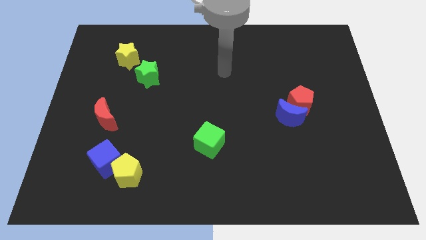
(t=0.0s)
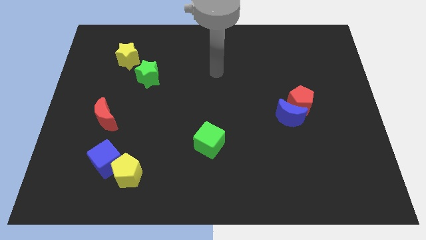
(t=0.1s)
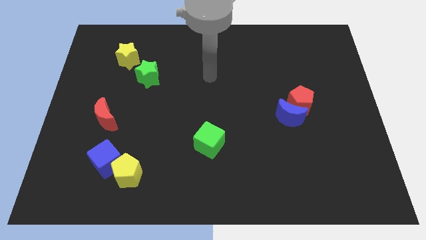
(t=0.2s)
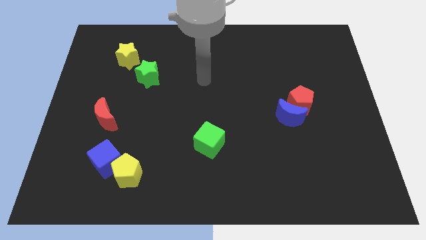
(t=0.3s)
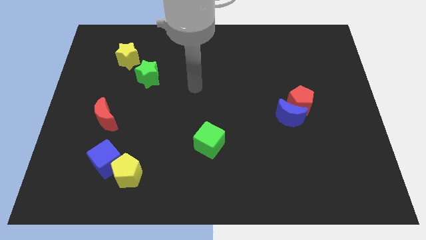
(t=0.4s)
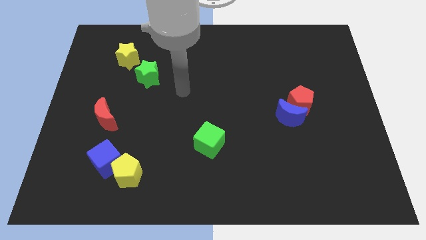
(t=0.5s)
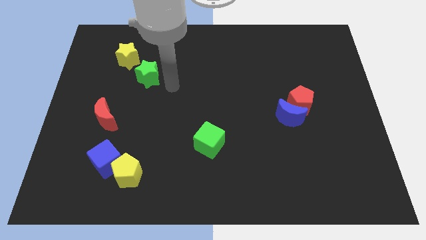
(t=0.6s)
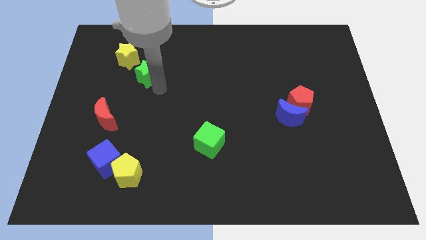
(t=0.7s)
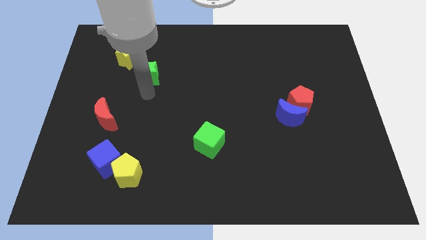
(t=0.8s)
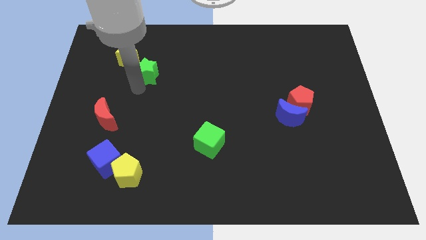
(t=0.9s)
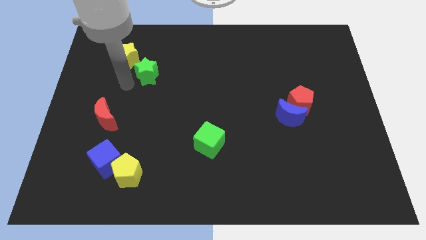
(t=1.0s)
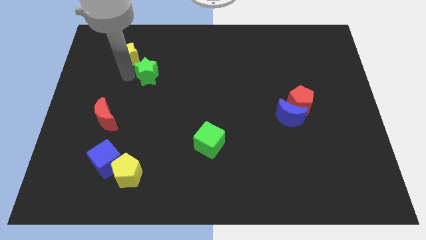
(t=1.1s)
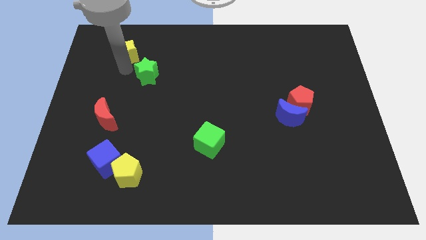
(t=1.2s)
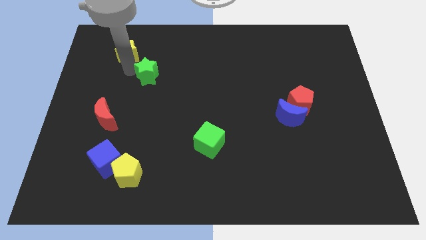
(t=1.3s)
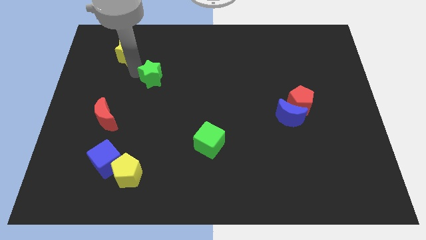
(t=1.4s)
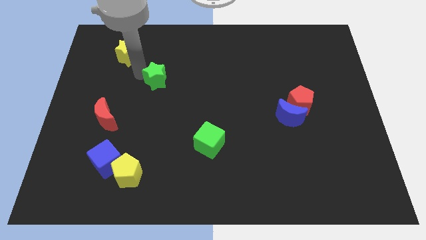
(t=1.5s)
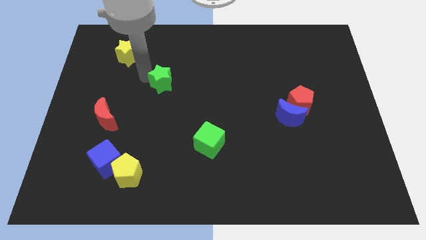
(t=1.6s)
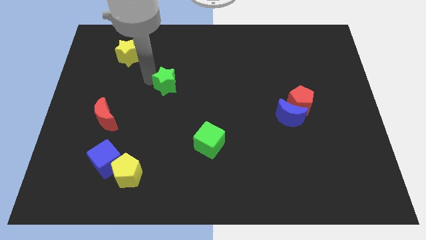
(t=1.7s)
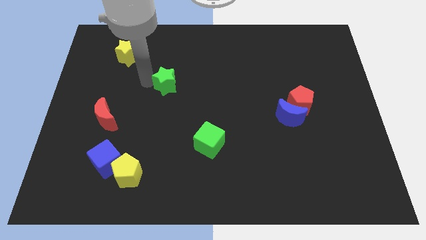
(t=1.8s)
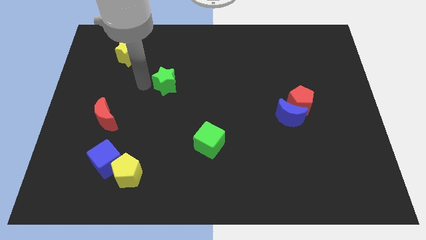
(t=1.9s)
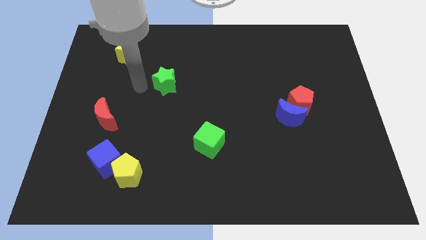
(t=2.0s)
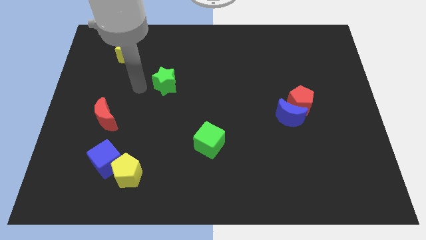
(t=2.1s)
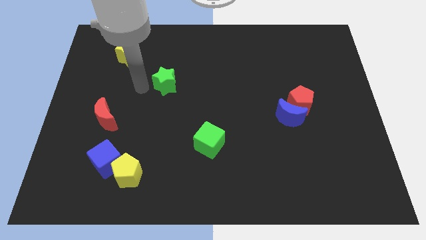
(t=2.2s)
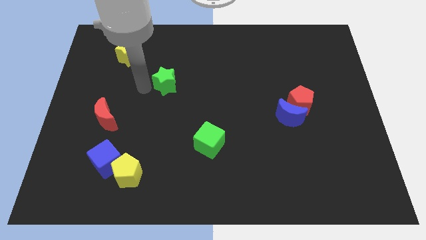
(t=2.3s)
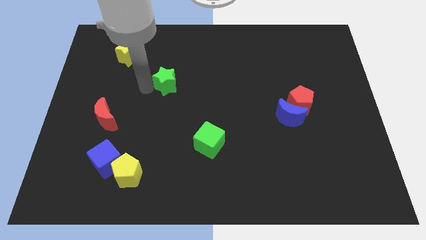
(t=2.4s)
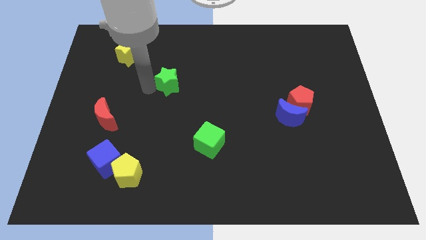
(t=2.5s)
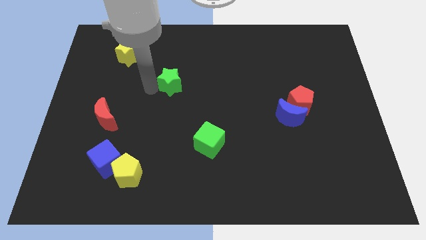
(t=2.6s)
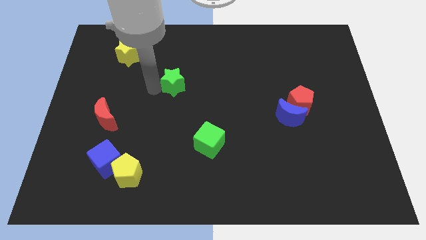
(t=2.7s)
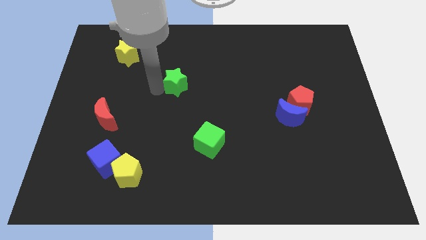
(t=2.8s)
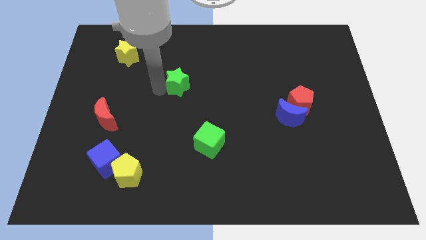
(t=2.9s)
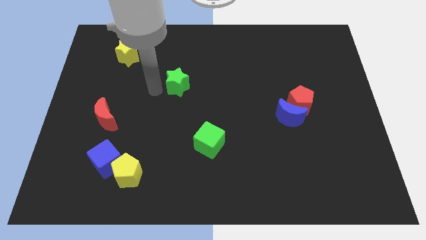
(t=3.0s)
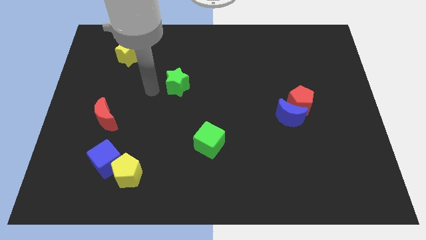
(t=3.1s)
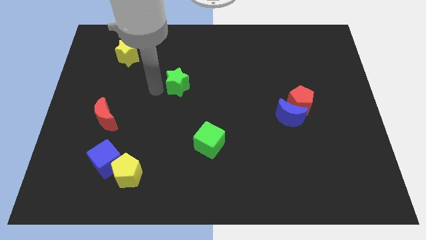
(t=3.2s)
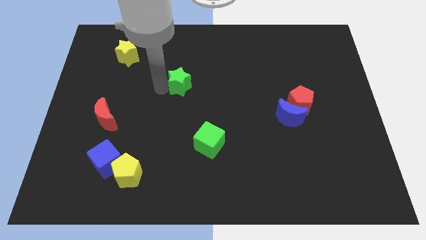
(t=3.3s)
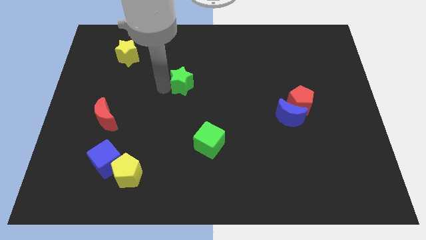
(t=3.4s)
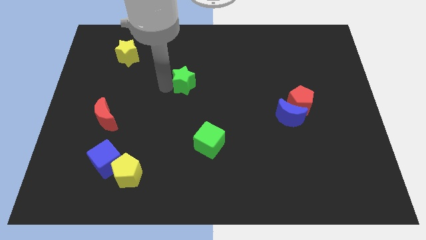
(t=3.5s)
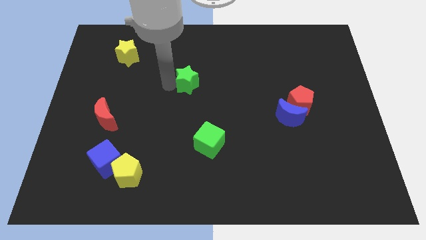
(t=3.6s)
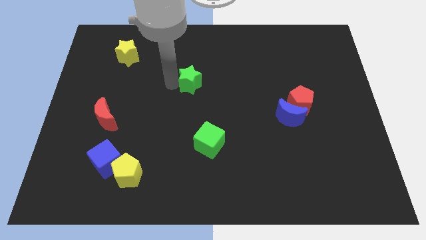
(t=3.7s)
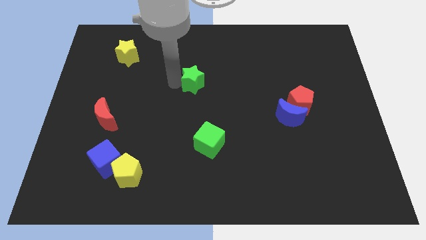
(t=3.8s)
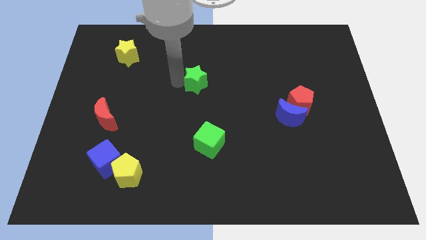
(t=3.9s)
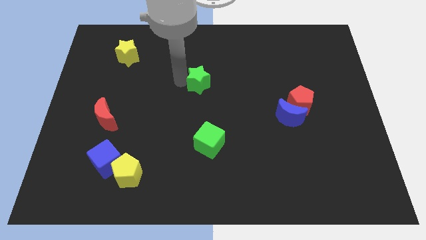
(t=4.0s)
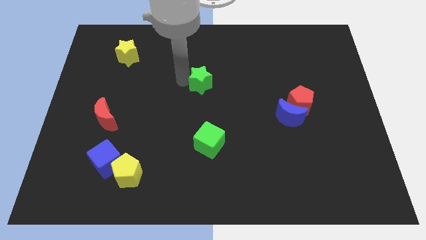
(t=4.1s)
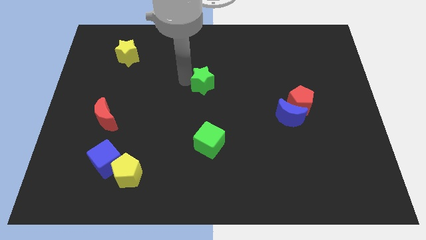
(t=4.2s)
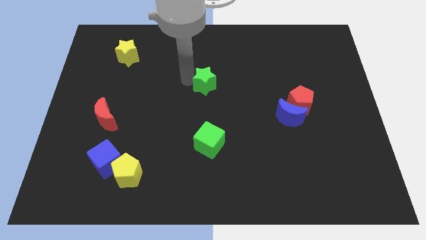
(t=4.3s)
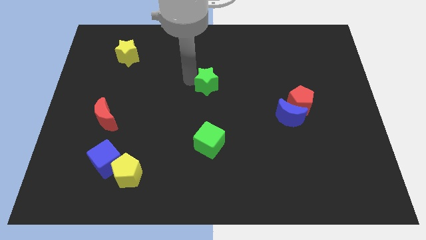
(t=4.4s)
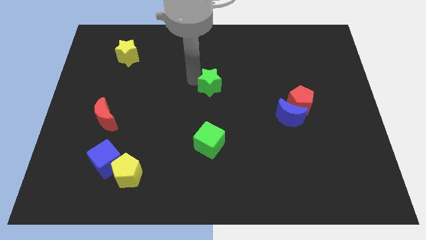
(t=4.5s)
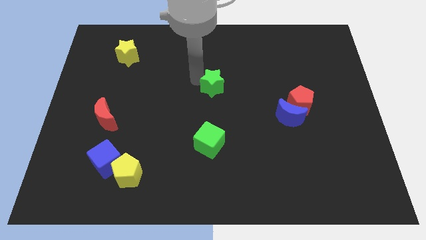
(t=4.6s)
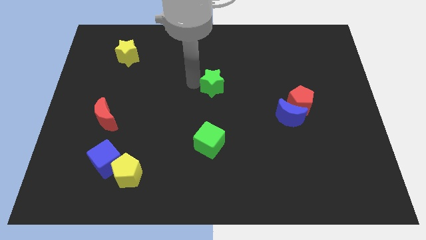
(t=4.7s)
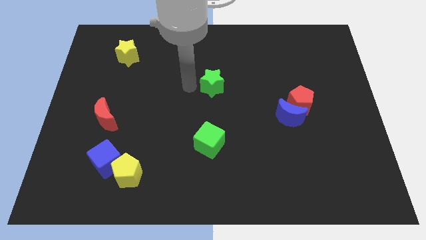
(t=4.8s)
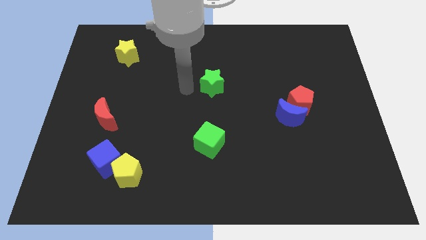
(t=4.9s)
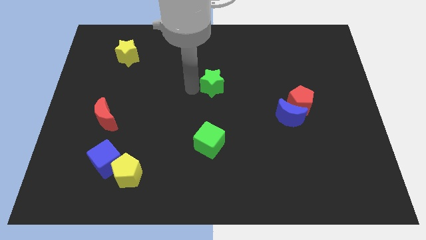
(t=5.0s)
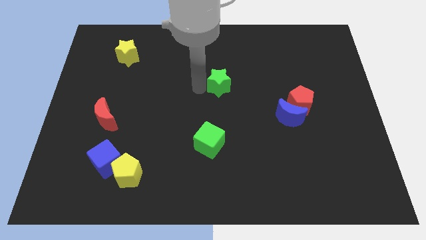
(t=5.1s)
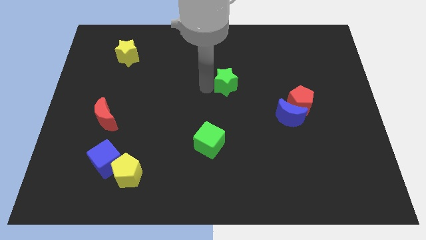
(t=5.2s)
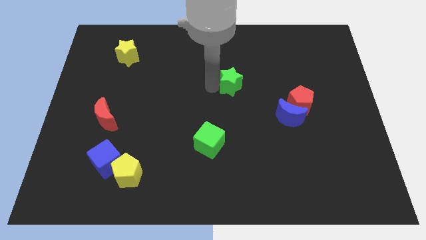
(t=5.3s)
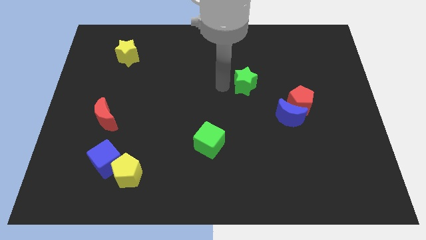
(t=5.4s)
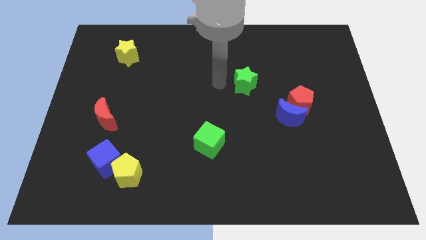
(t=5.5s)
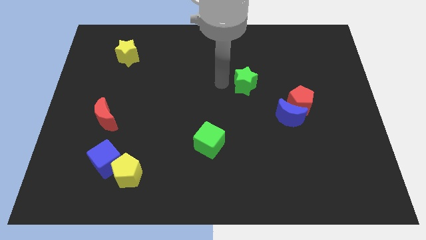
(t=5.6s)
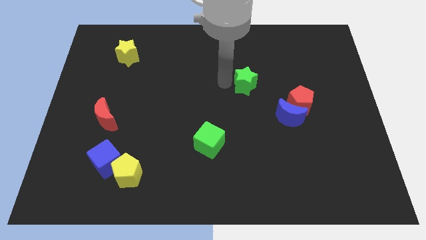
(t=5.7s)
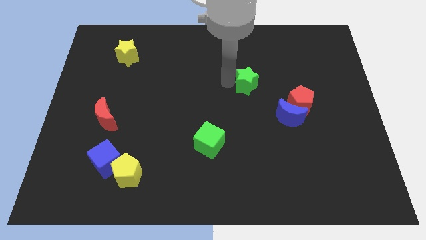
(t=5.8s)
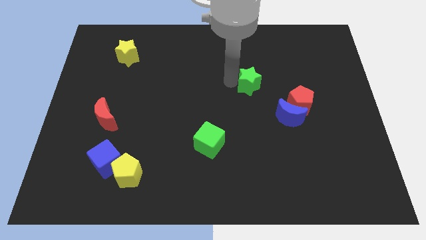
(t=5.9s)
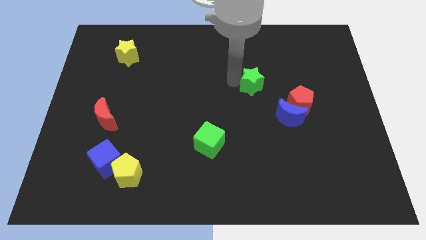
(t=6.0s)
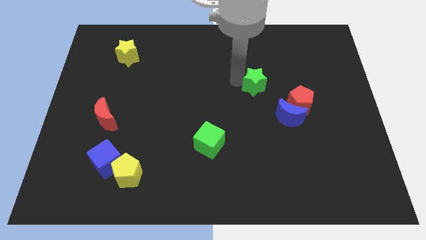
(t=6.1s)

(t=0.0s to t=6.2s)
slide the green star to the top left side of the red pentagon

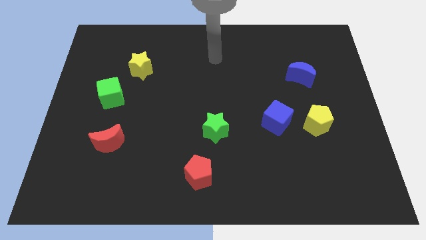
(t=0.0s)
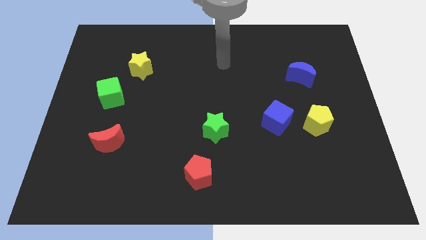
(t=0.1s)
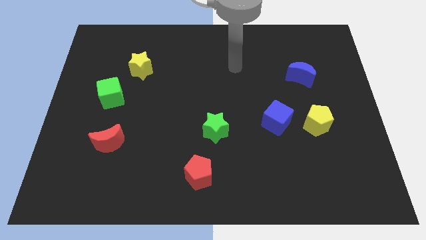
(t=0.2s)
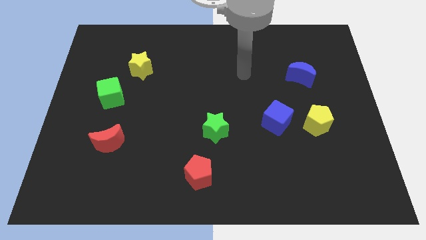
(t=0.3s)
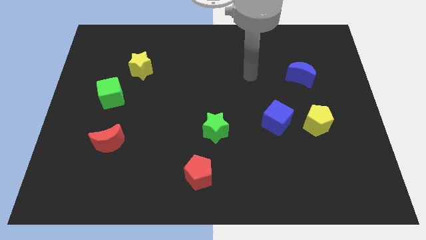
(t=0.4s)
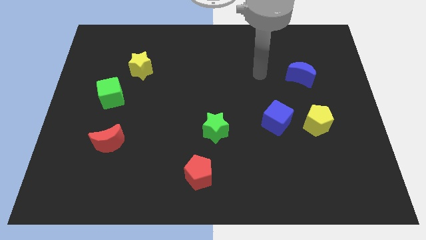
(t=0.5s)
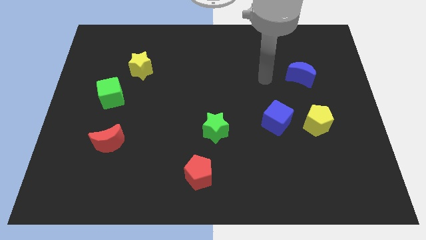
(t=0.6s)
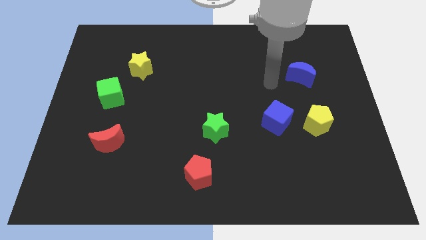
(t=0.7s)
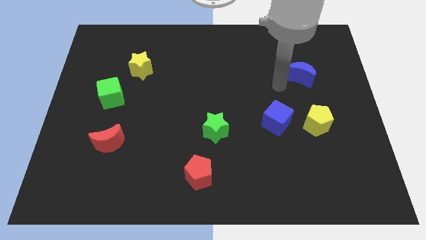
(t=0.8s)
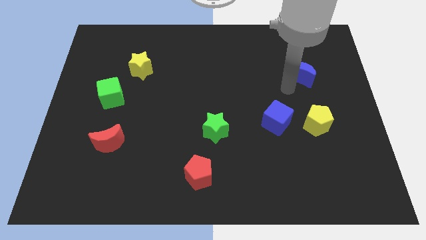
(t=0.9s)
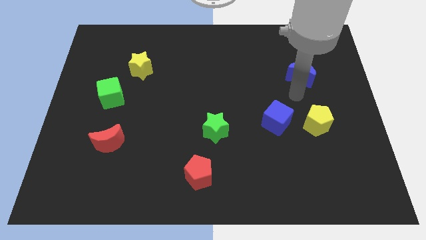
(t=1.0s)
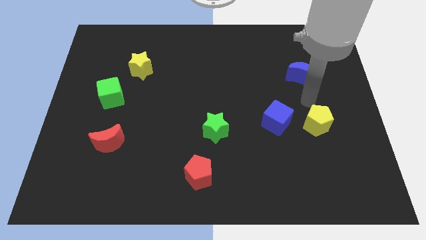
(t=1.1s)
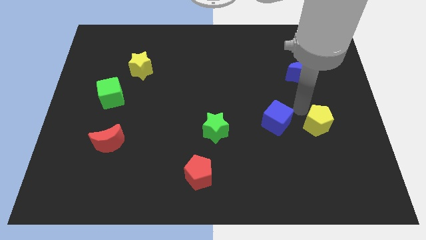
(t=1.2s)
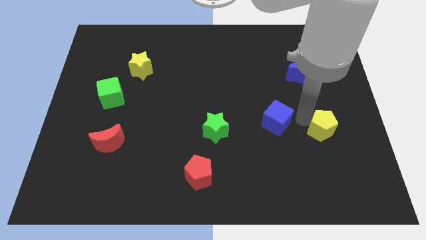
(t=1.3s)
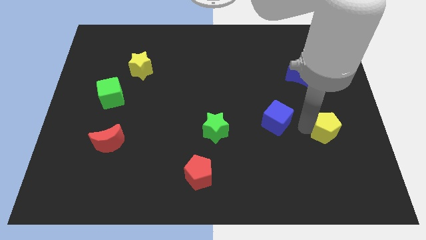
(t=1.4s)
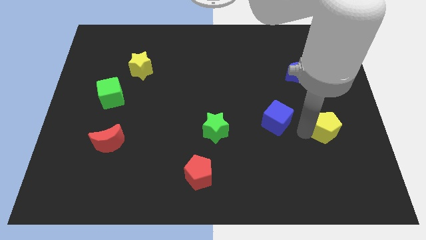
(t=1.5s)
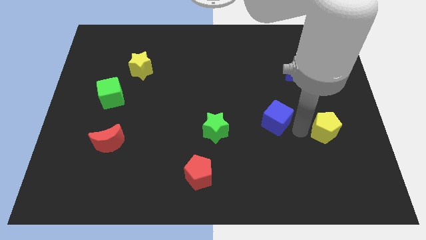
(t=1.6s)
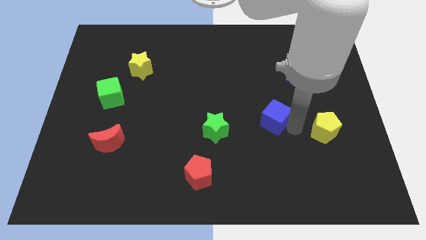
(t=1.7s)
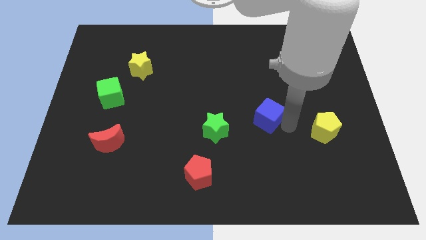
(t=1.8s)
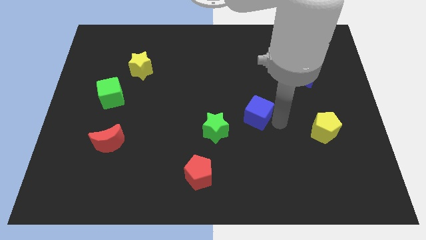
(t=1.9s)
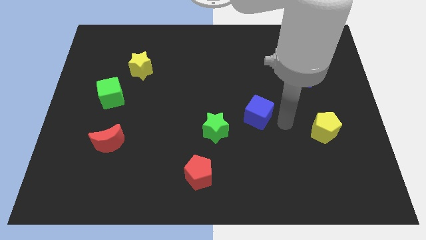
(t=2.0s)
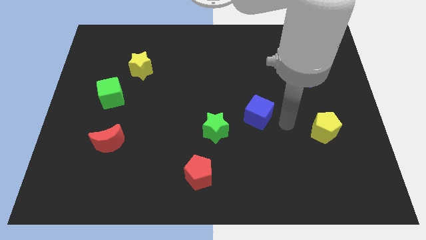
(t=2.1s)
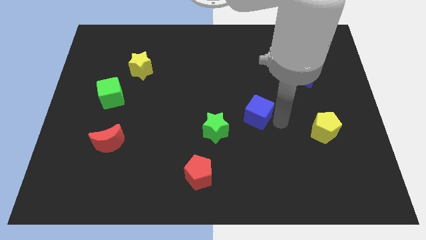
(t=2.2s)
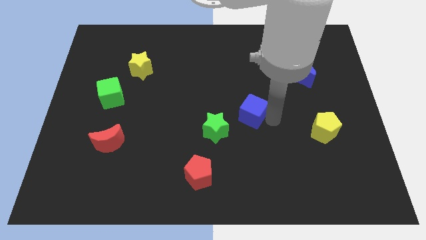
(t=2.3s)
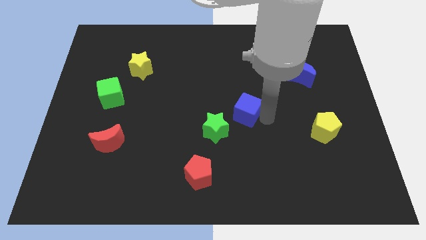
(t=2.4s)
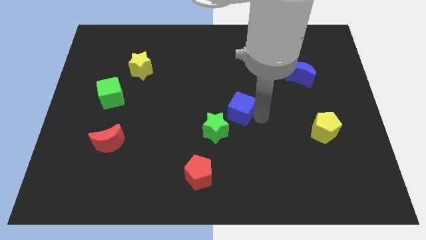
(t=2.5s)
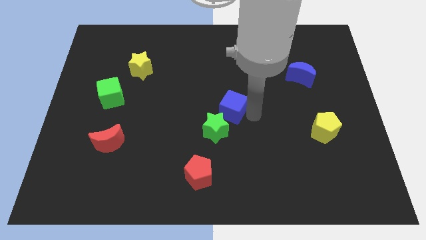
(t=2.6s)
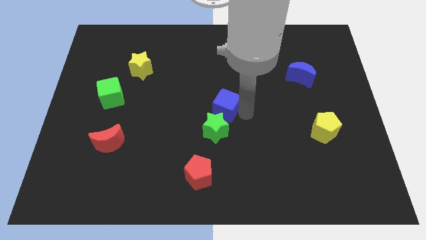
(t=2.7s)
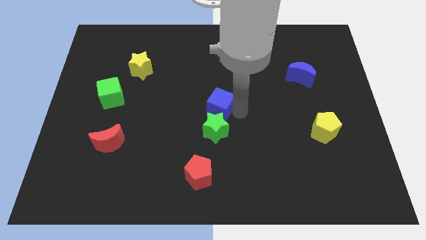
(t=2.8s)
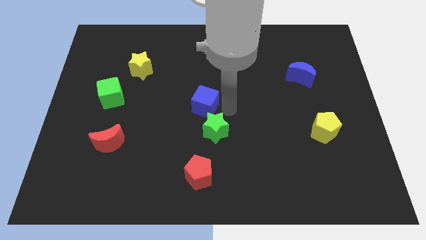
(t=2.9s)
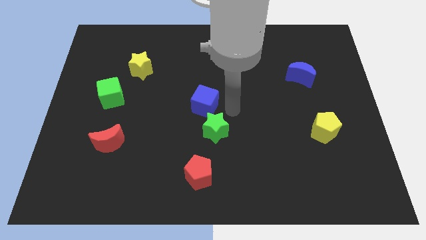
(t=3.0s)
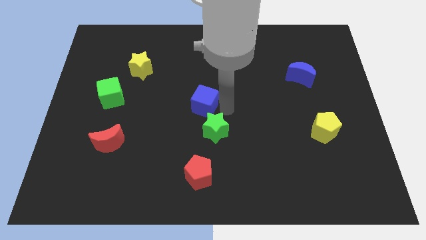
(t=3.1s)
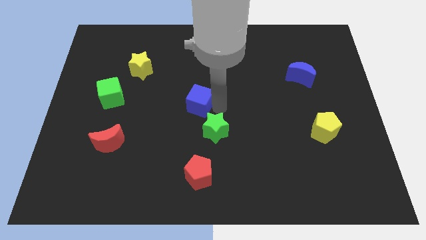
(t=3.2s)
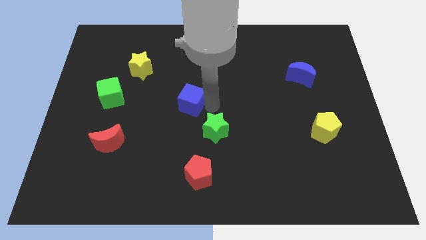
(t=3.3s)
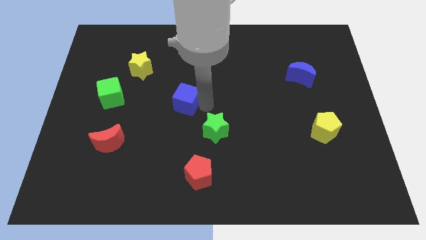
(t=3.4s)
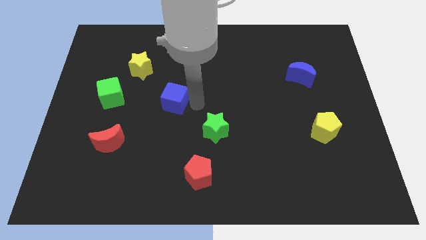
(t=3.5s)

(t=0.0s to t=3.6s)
put the blue cube just right of the green cube
